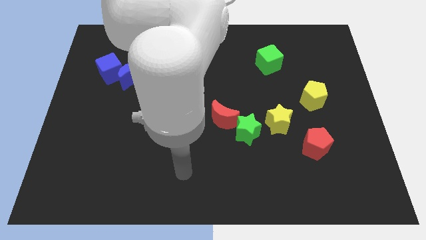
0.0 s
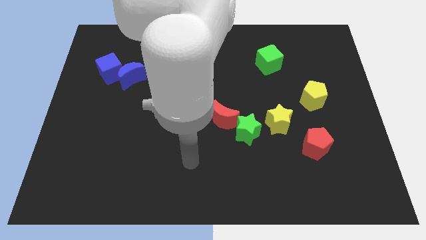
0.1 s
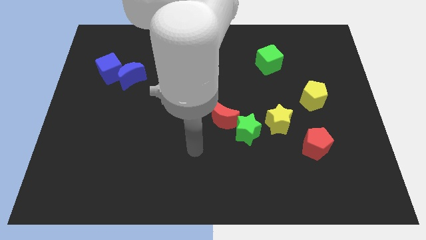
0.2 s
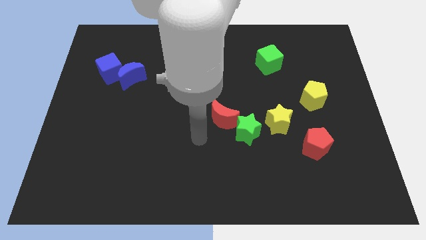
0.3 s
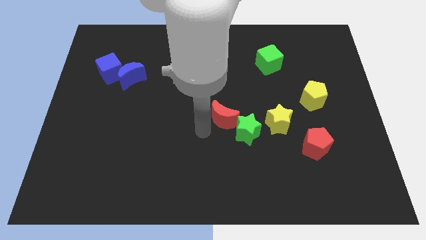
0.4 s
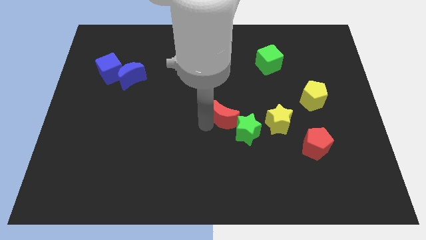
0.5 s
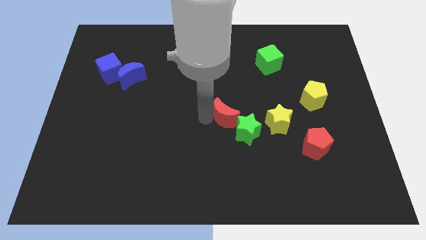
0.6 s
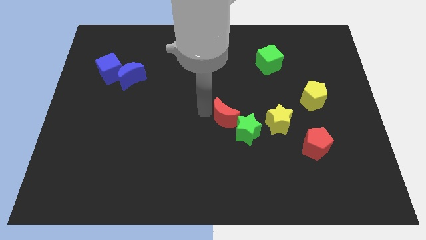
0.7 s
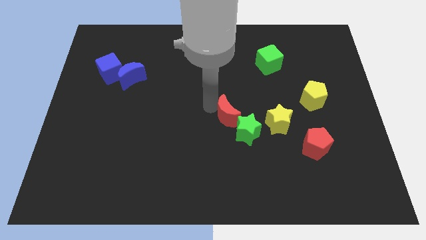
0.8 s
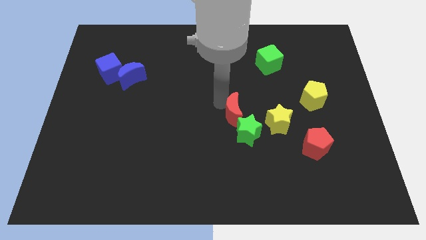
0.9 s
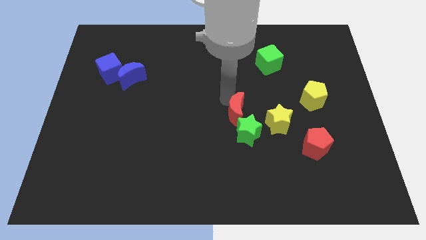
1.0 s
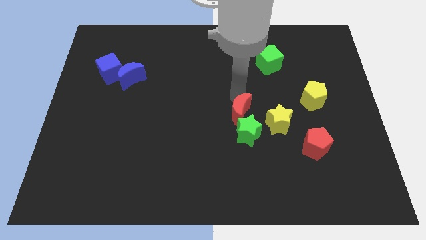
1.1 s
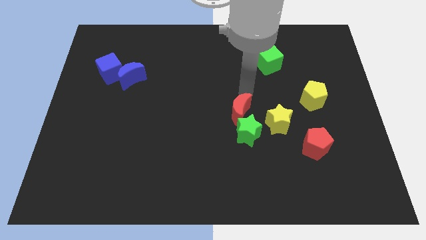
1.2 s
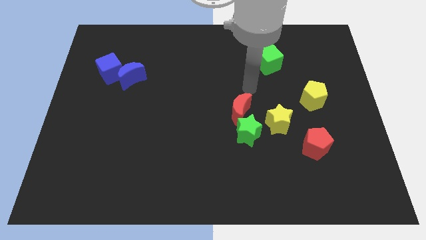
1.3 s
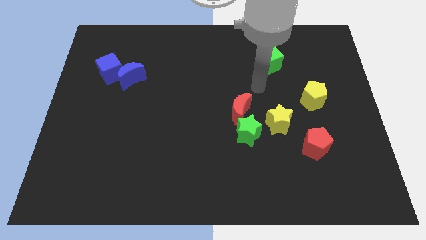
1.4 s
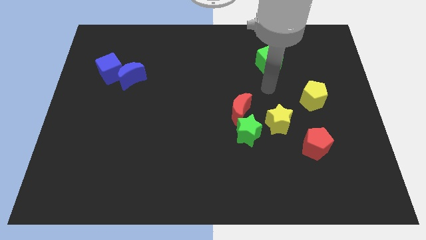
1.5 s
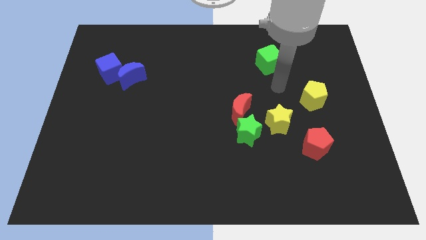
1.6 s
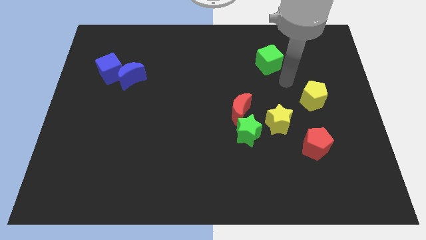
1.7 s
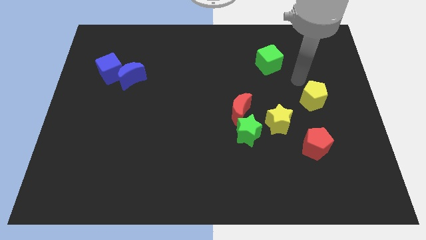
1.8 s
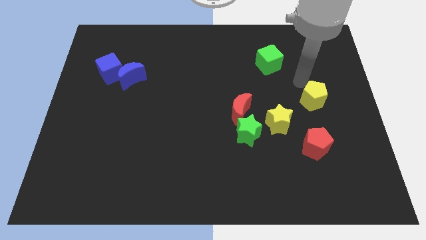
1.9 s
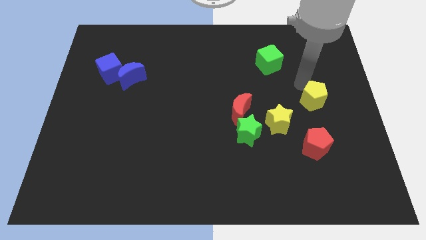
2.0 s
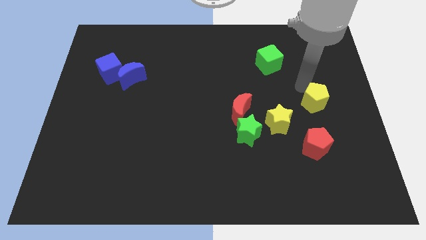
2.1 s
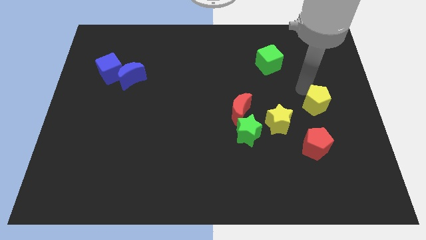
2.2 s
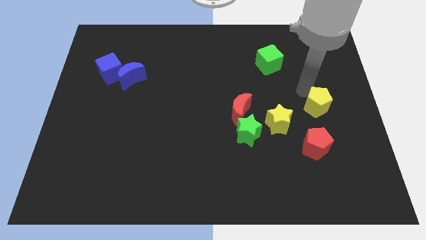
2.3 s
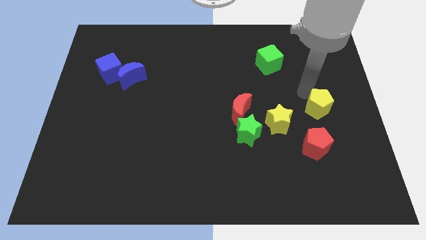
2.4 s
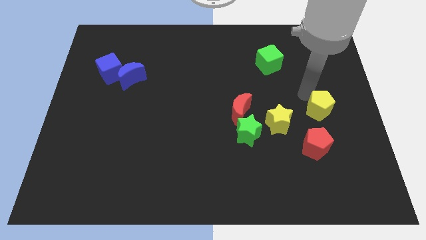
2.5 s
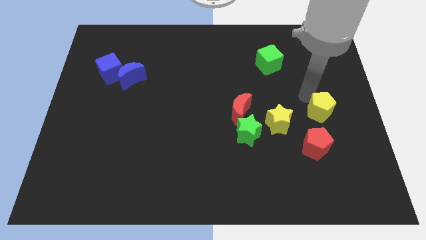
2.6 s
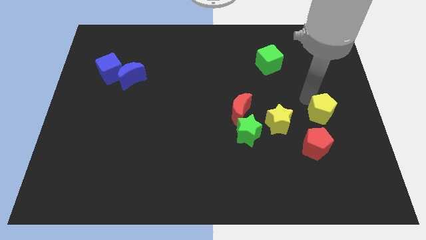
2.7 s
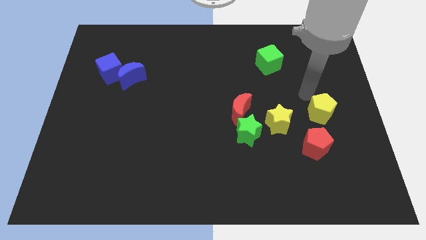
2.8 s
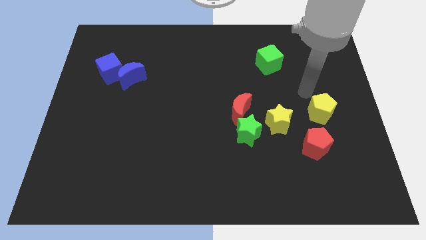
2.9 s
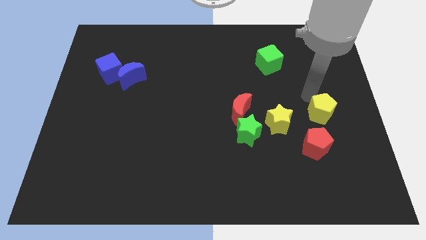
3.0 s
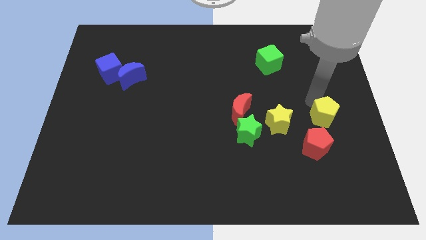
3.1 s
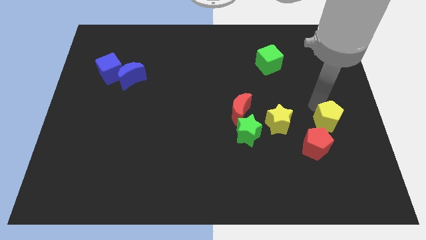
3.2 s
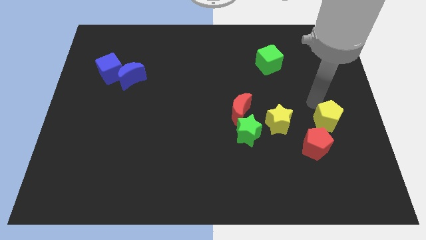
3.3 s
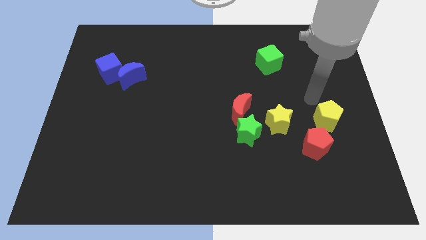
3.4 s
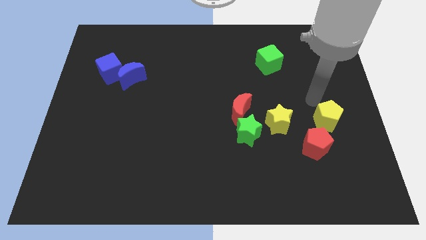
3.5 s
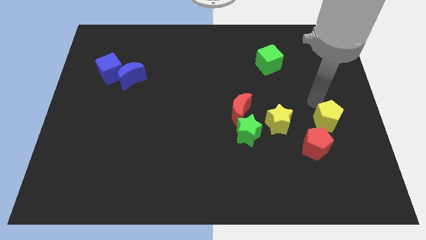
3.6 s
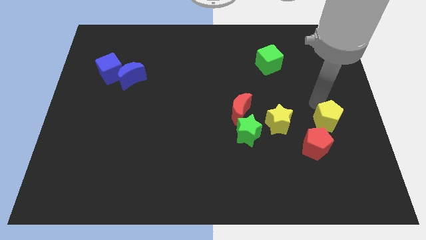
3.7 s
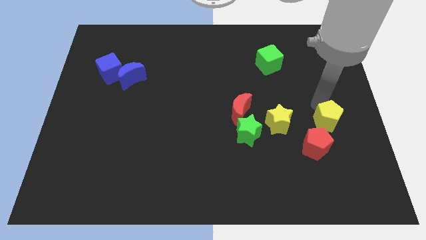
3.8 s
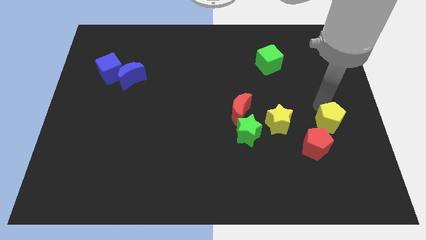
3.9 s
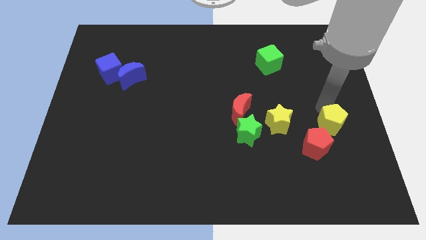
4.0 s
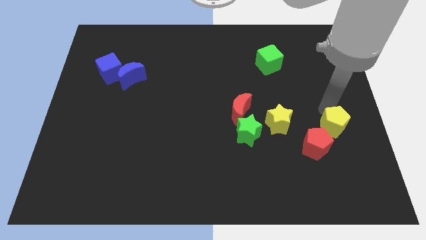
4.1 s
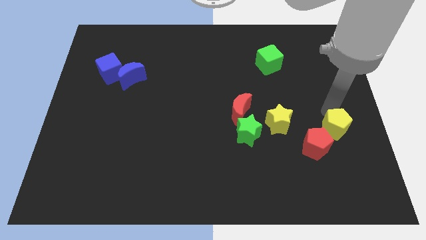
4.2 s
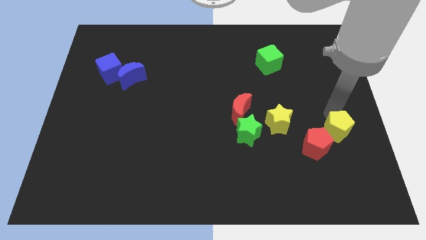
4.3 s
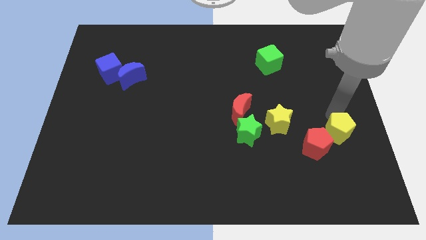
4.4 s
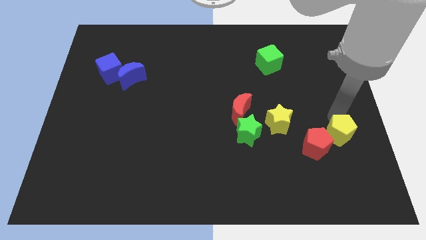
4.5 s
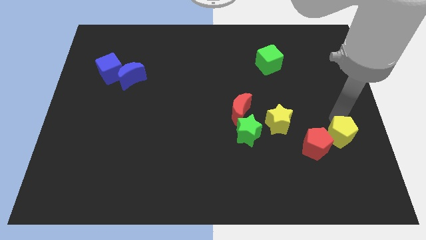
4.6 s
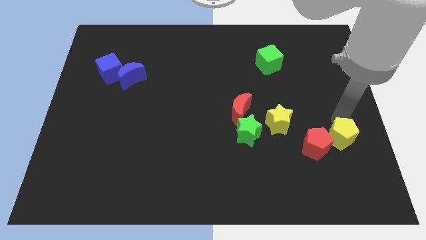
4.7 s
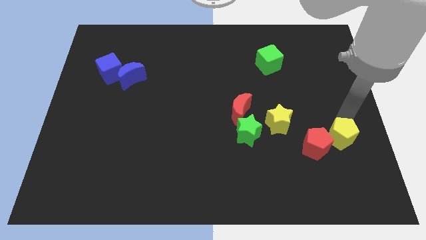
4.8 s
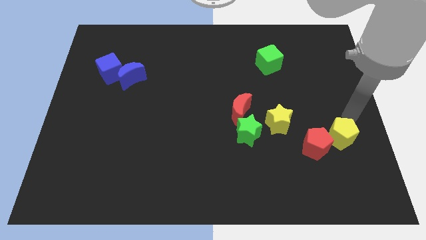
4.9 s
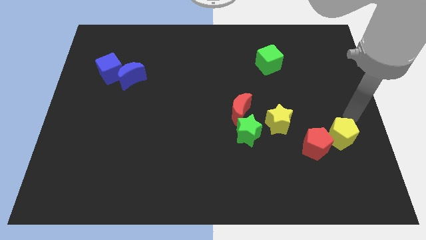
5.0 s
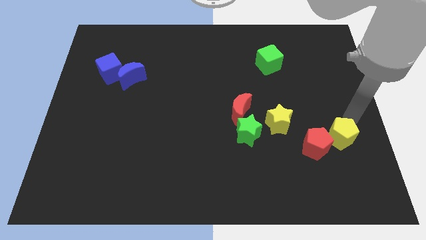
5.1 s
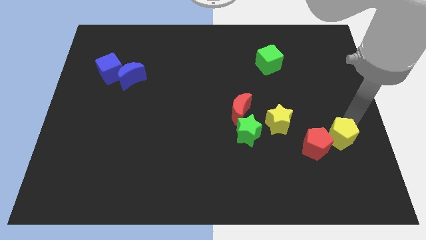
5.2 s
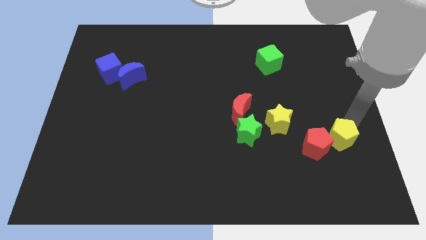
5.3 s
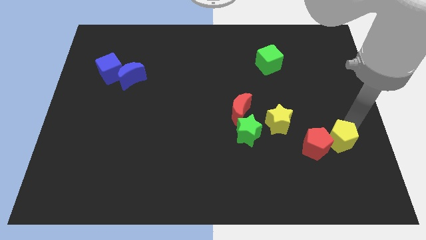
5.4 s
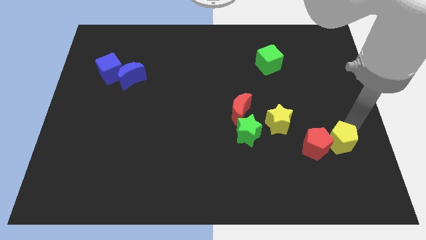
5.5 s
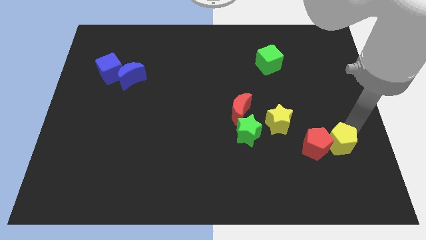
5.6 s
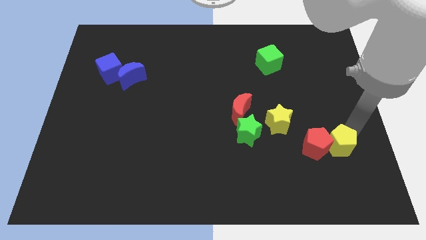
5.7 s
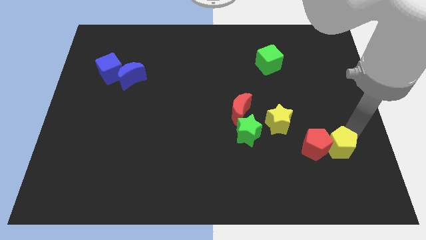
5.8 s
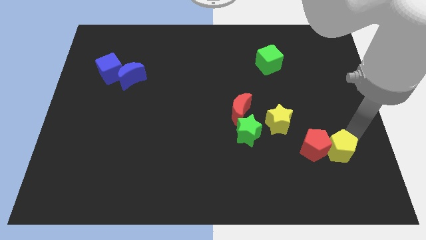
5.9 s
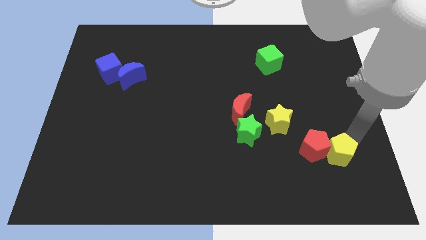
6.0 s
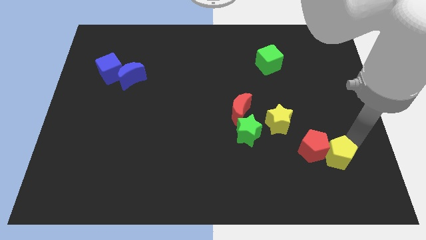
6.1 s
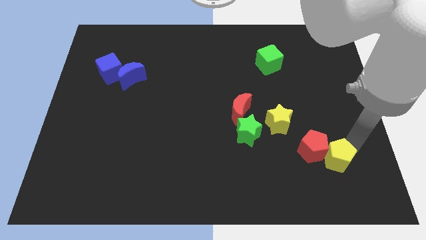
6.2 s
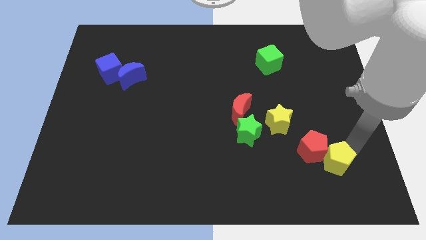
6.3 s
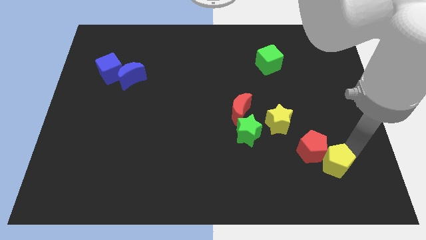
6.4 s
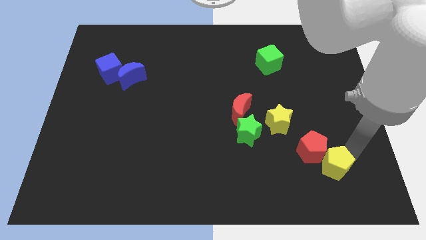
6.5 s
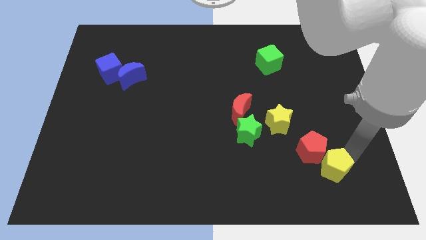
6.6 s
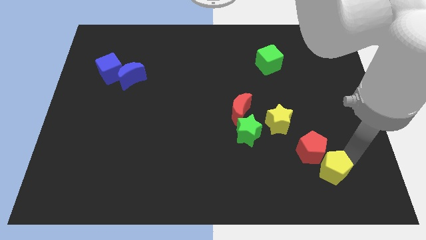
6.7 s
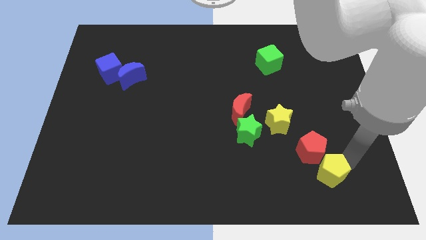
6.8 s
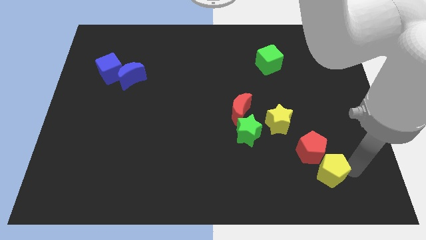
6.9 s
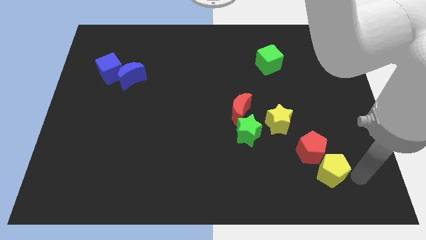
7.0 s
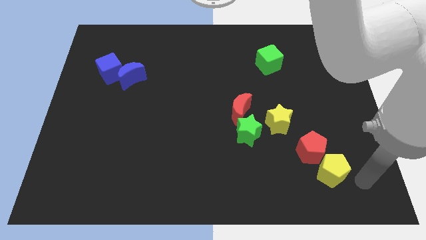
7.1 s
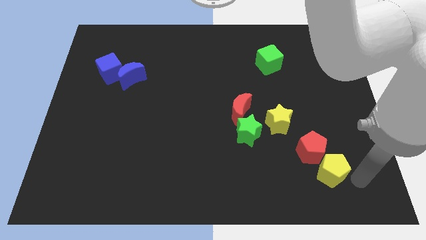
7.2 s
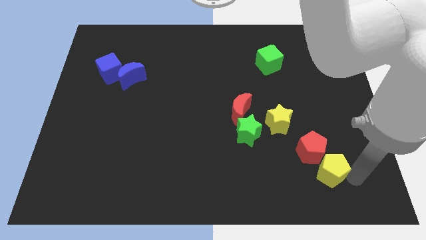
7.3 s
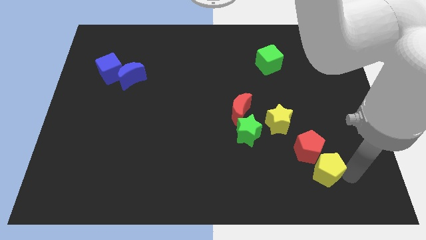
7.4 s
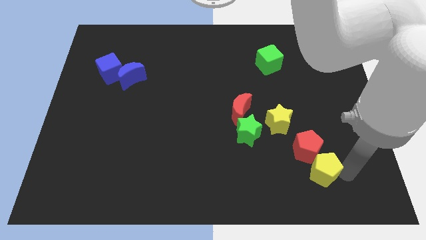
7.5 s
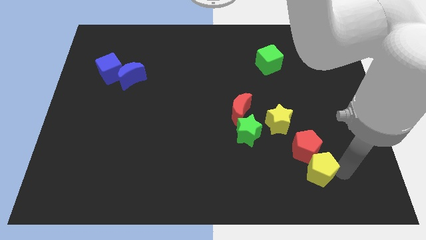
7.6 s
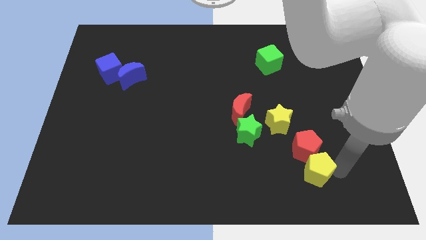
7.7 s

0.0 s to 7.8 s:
push the yellow pentagon diagonally downwards and to the left a little

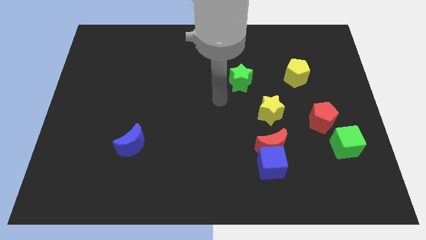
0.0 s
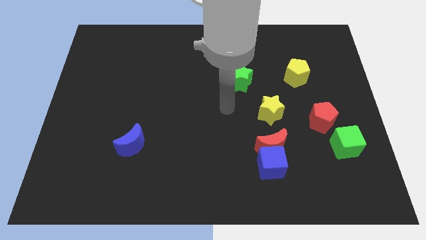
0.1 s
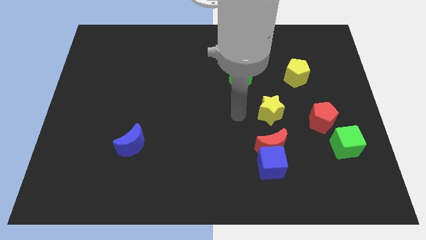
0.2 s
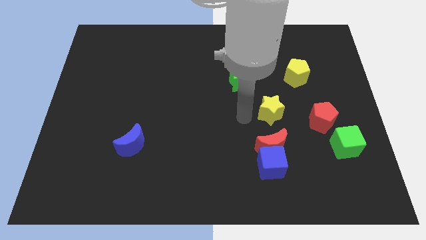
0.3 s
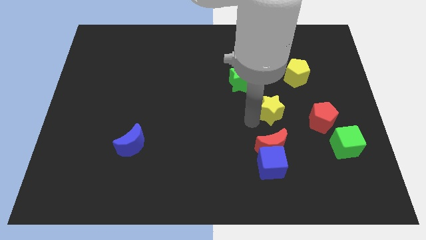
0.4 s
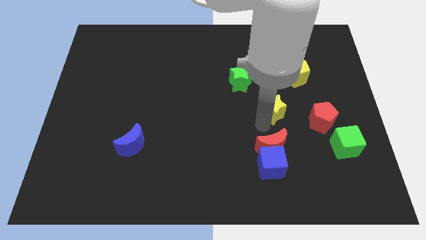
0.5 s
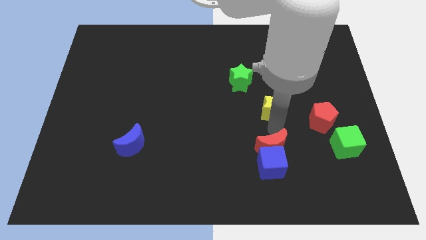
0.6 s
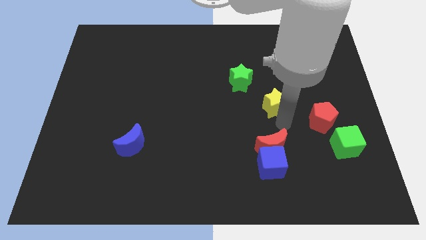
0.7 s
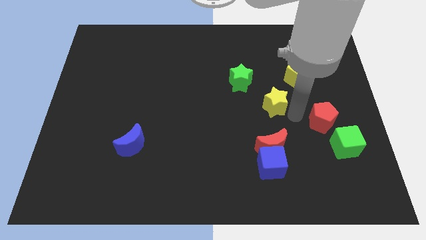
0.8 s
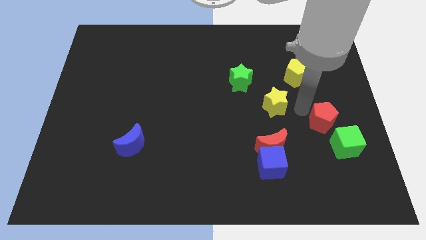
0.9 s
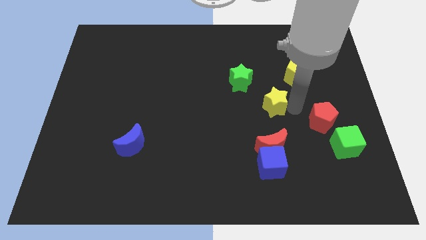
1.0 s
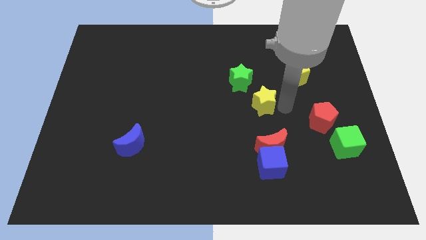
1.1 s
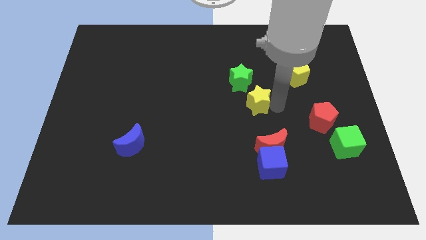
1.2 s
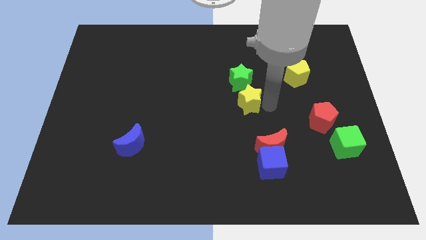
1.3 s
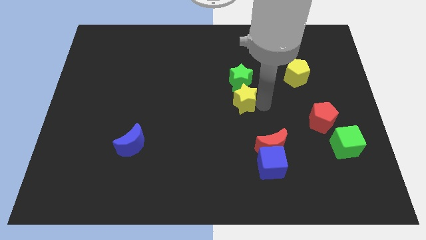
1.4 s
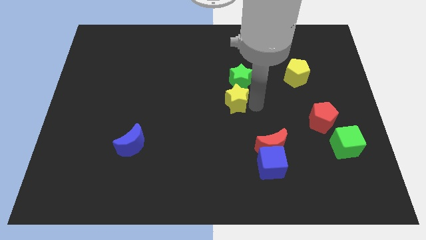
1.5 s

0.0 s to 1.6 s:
slightly slide the yellow star diagonally up and to the left
